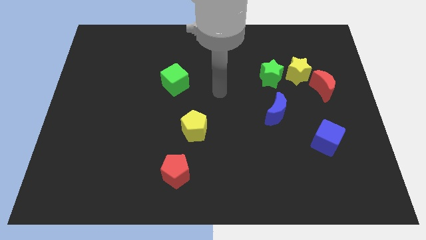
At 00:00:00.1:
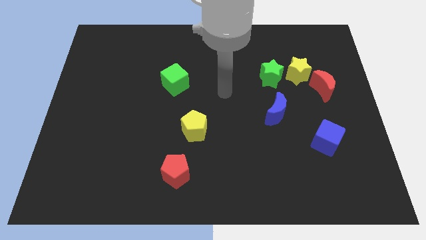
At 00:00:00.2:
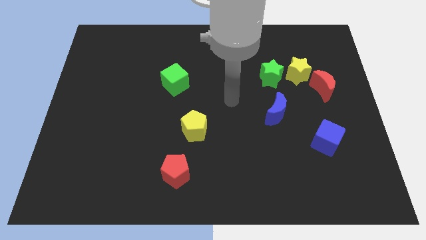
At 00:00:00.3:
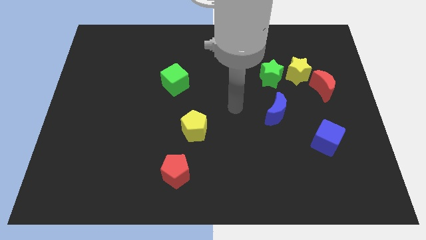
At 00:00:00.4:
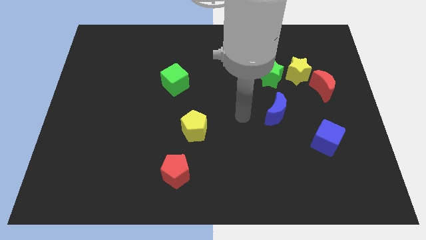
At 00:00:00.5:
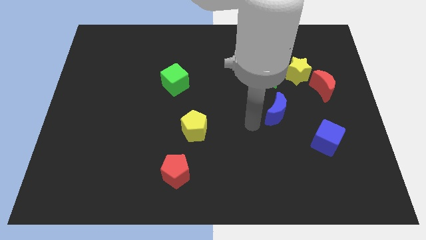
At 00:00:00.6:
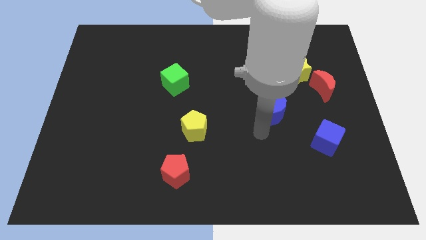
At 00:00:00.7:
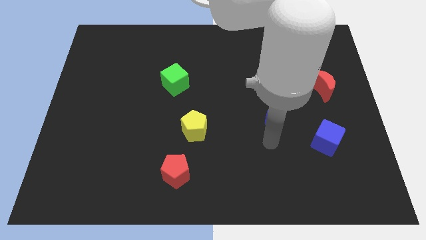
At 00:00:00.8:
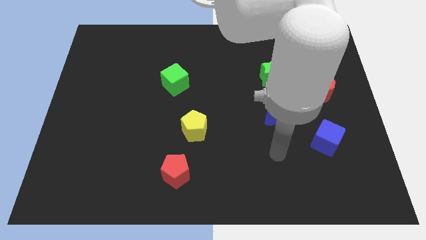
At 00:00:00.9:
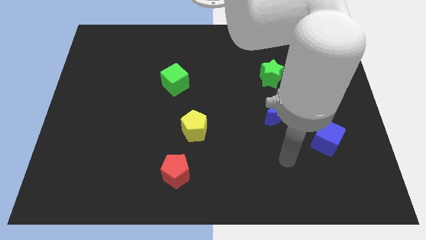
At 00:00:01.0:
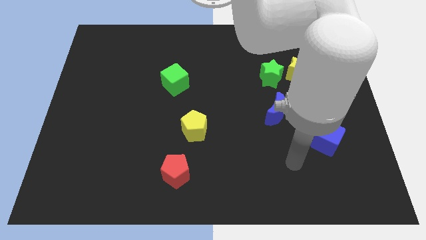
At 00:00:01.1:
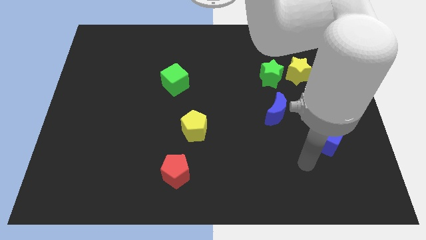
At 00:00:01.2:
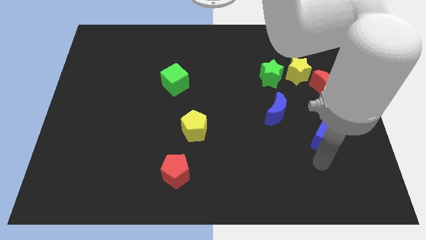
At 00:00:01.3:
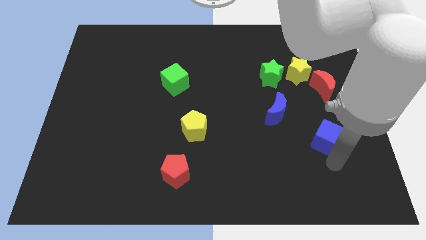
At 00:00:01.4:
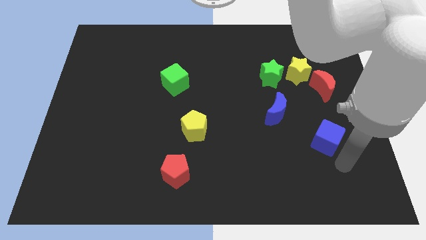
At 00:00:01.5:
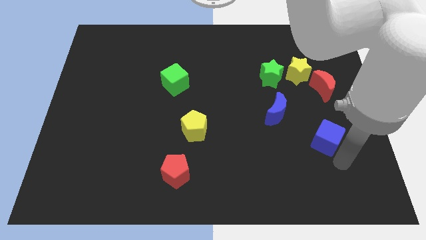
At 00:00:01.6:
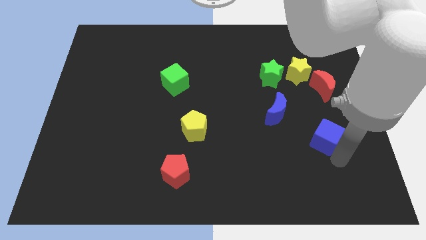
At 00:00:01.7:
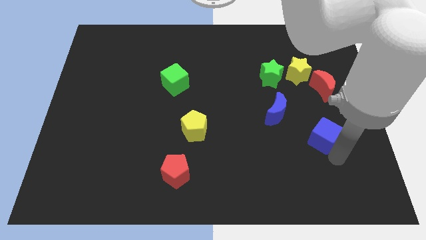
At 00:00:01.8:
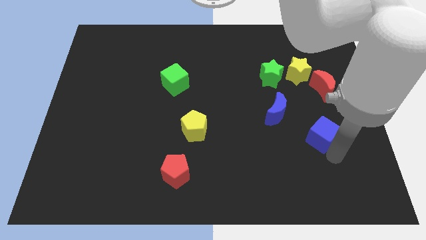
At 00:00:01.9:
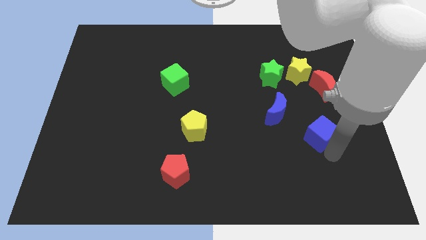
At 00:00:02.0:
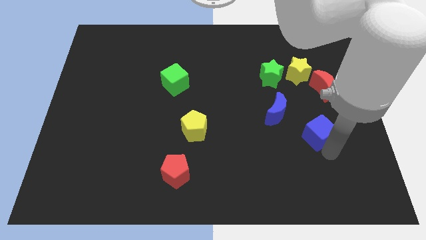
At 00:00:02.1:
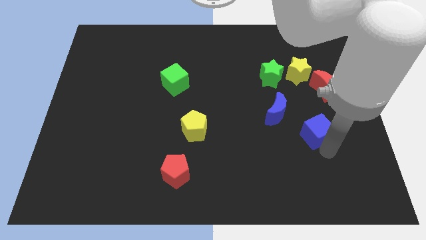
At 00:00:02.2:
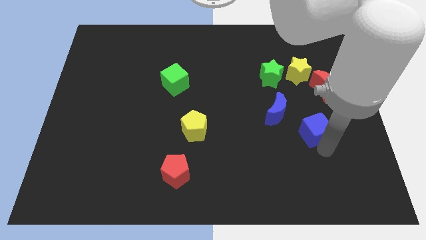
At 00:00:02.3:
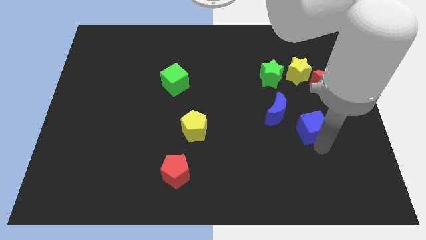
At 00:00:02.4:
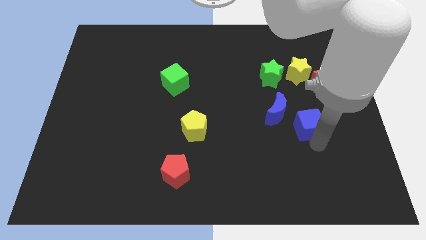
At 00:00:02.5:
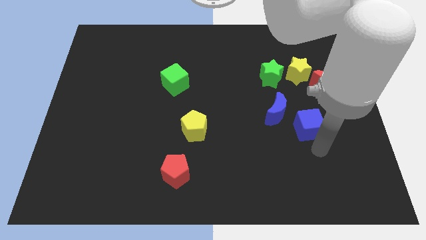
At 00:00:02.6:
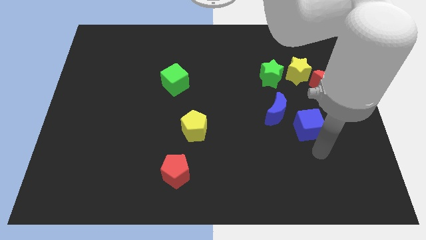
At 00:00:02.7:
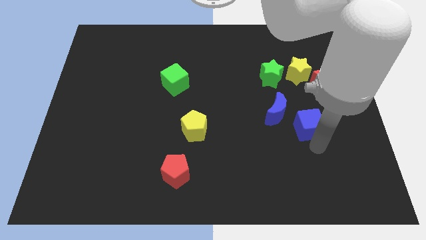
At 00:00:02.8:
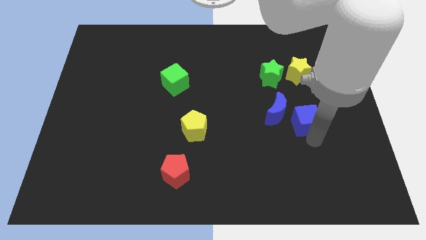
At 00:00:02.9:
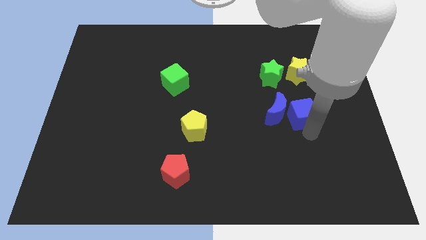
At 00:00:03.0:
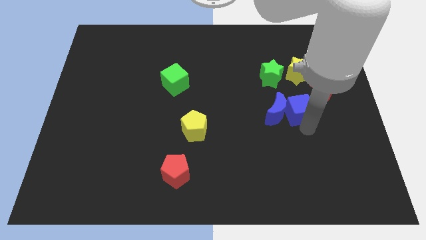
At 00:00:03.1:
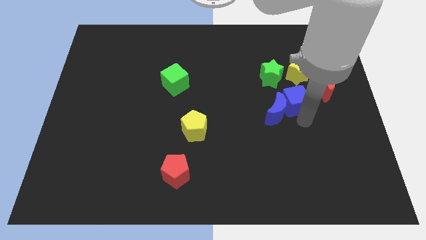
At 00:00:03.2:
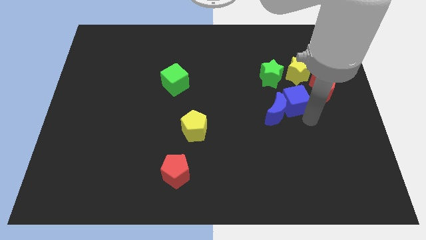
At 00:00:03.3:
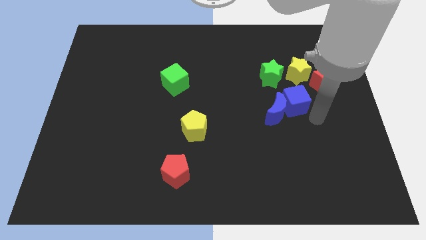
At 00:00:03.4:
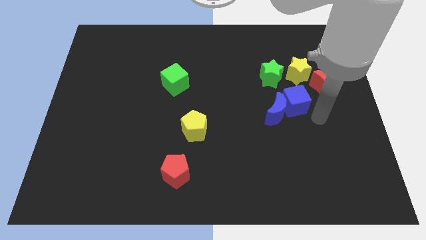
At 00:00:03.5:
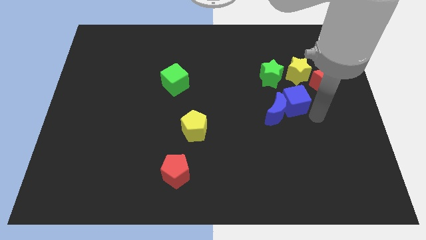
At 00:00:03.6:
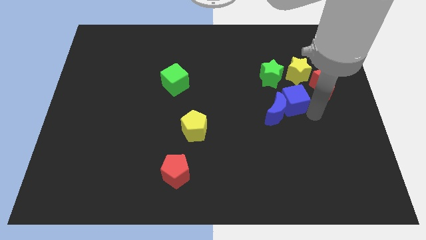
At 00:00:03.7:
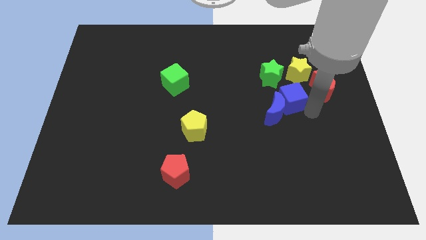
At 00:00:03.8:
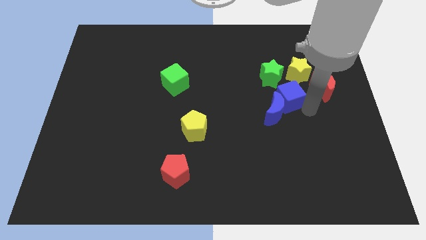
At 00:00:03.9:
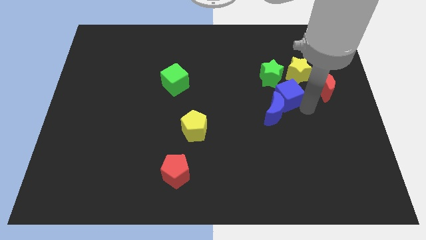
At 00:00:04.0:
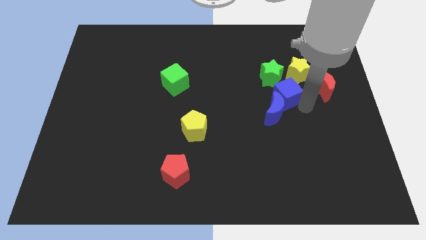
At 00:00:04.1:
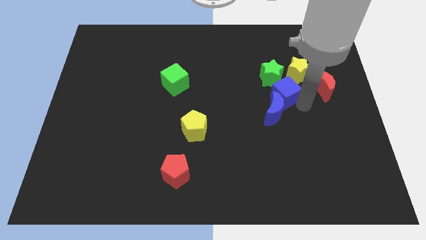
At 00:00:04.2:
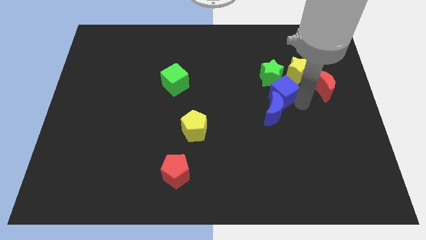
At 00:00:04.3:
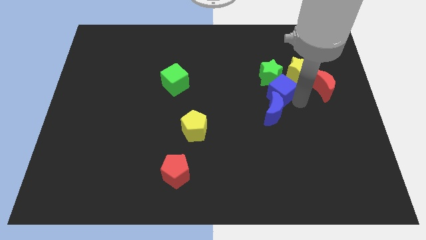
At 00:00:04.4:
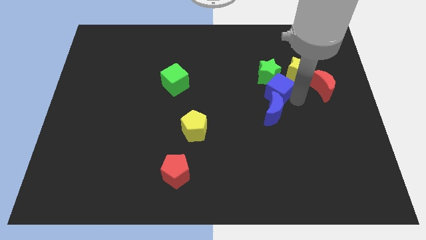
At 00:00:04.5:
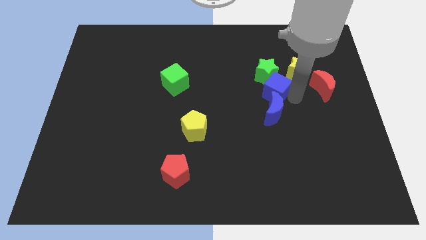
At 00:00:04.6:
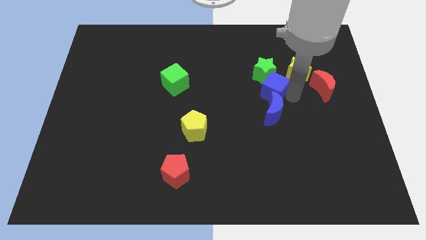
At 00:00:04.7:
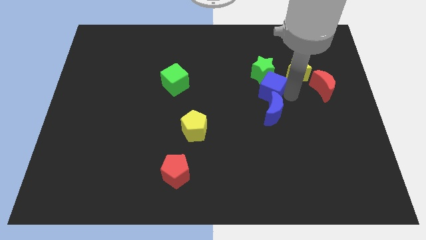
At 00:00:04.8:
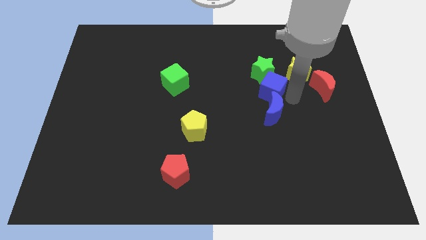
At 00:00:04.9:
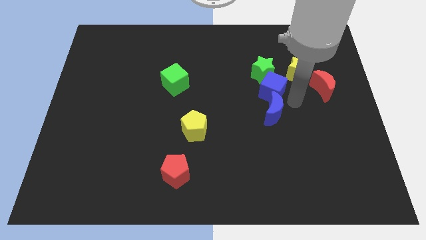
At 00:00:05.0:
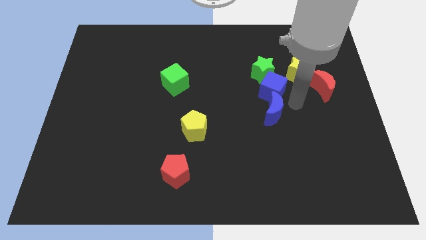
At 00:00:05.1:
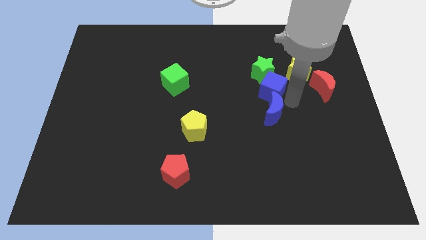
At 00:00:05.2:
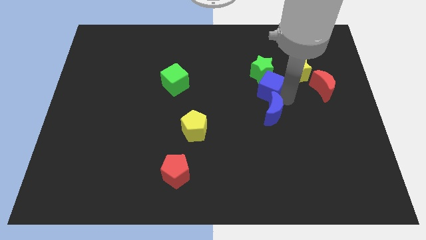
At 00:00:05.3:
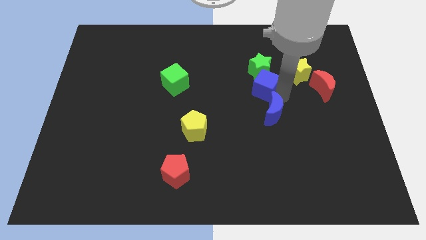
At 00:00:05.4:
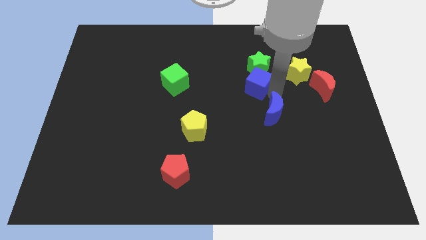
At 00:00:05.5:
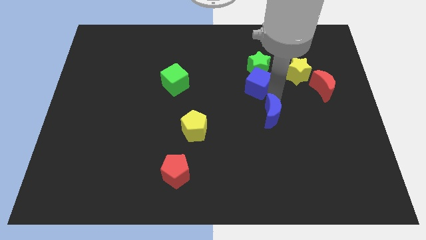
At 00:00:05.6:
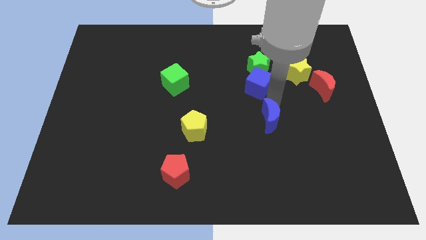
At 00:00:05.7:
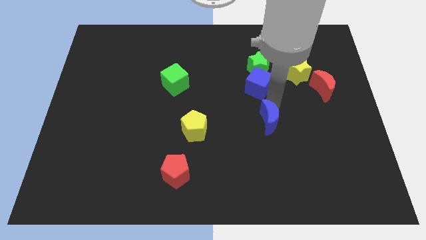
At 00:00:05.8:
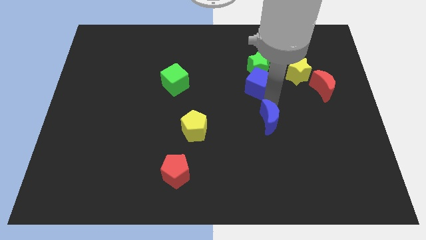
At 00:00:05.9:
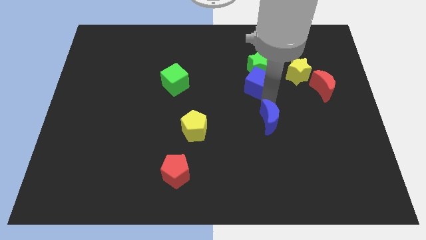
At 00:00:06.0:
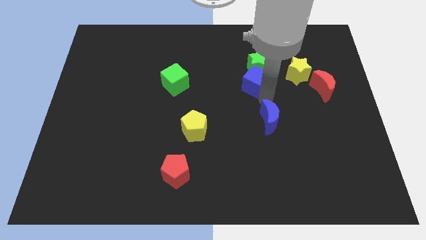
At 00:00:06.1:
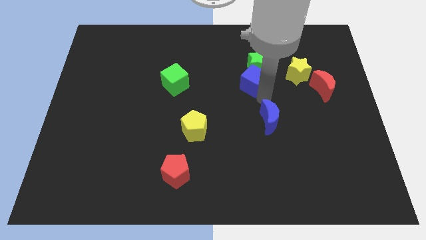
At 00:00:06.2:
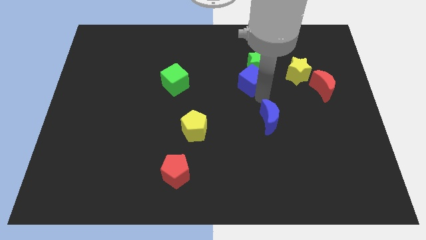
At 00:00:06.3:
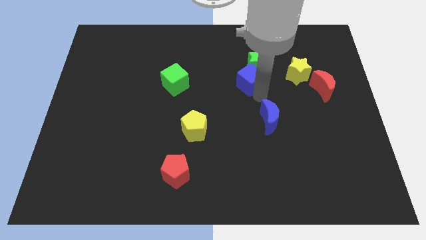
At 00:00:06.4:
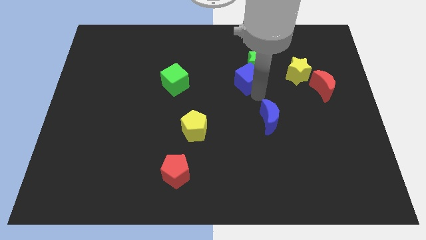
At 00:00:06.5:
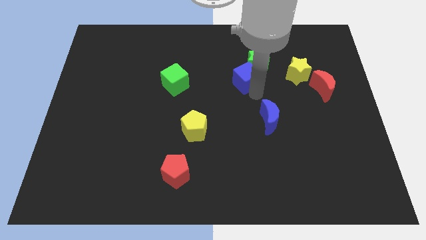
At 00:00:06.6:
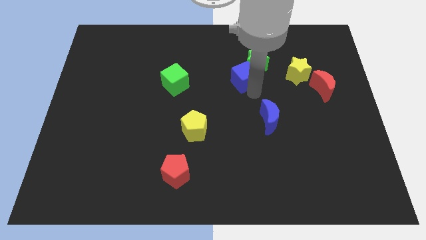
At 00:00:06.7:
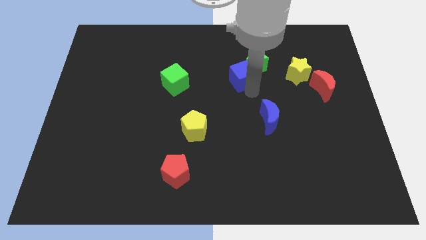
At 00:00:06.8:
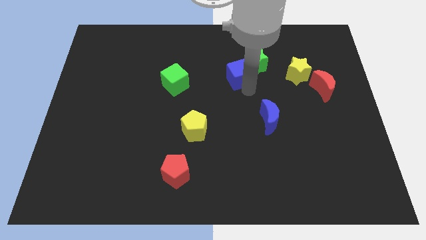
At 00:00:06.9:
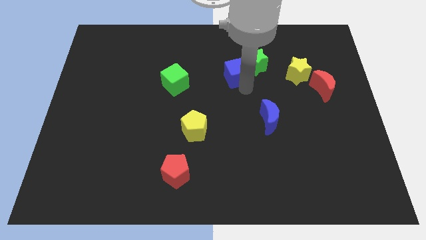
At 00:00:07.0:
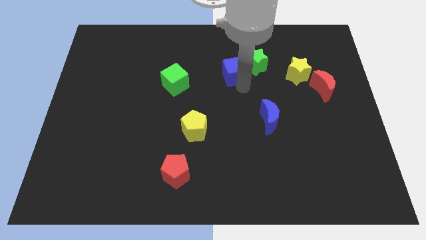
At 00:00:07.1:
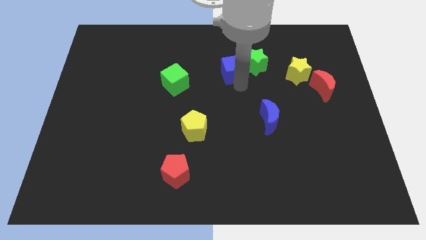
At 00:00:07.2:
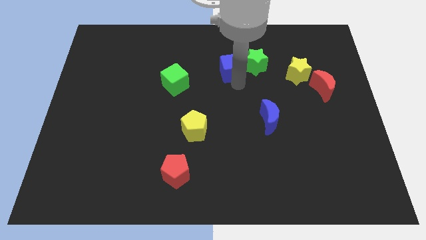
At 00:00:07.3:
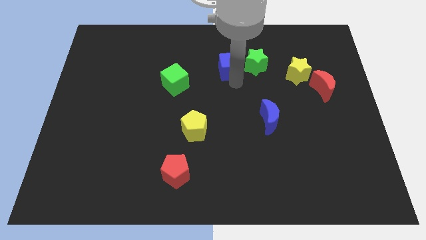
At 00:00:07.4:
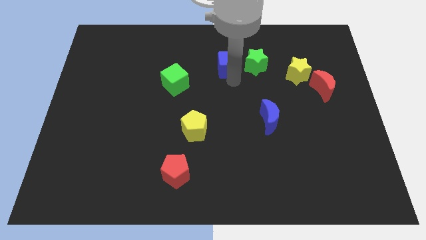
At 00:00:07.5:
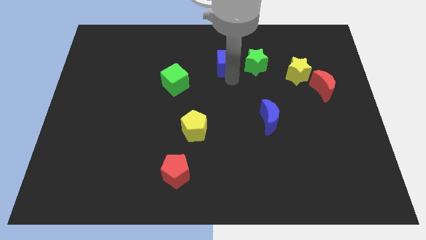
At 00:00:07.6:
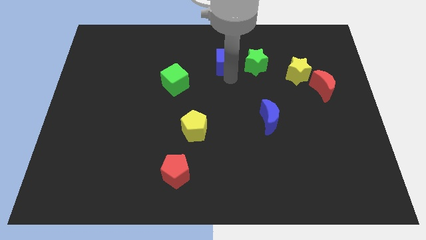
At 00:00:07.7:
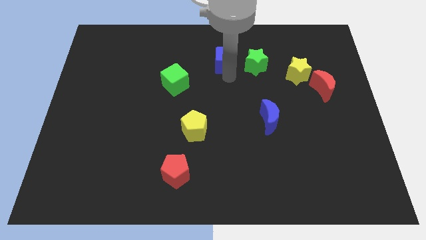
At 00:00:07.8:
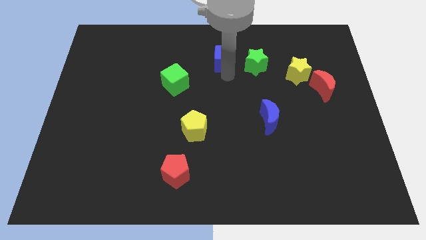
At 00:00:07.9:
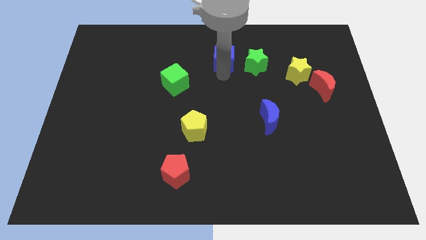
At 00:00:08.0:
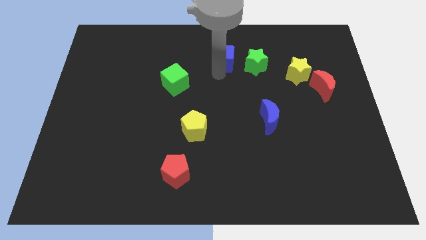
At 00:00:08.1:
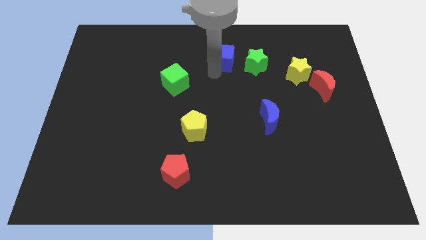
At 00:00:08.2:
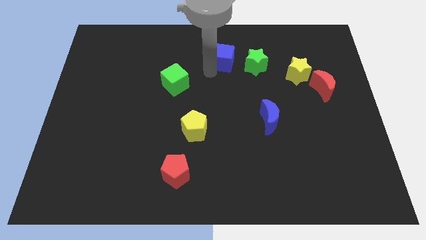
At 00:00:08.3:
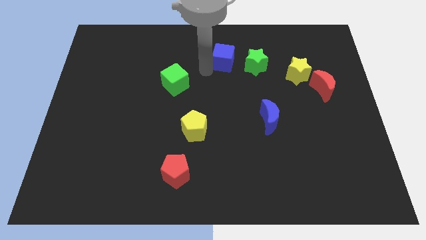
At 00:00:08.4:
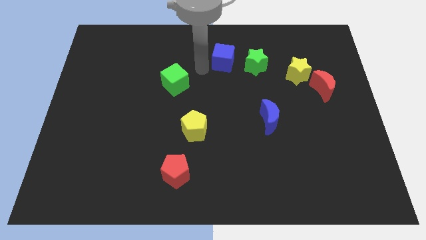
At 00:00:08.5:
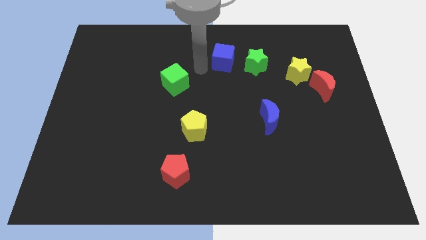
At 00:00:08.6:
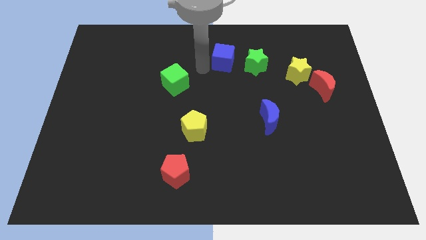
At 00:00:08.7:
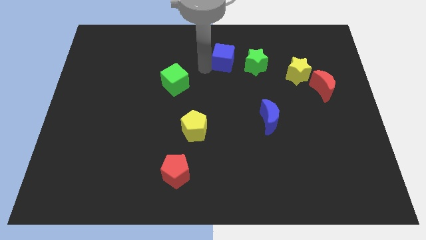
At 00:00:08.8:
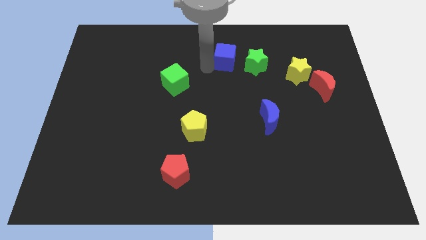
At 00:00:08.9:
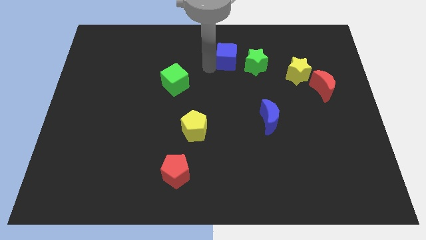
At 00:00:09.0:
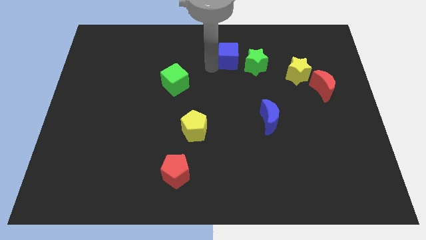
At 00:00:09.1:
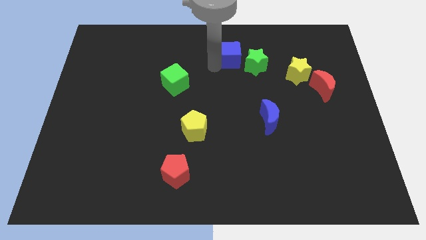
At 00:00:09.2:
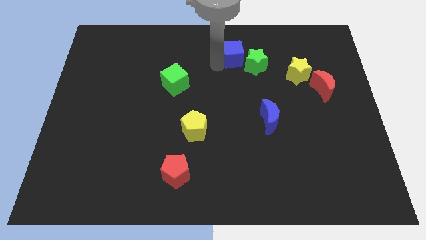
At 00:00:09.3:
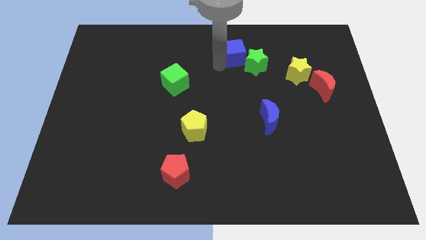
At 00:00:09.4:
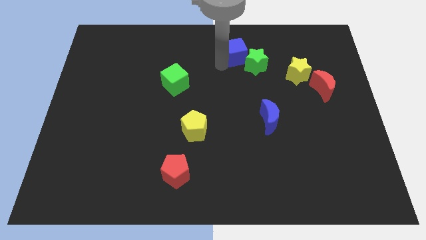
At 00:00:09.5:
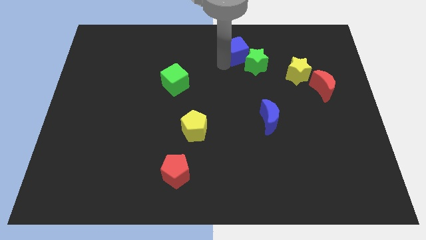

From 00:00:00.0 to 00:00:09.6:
move the blue cube to the towards your base
